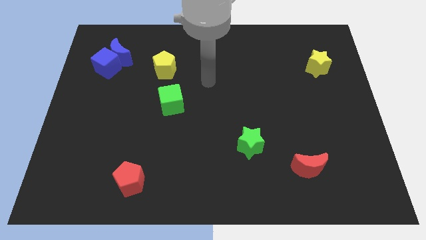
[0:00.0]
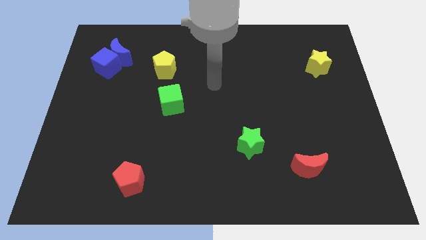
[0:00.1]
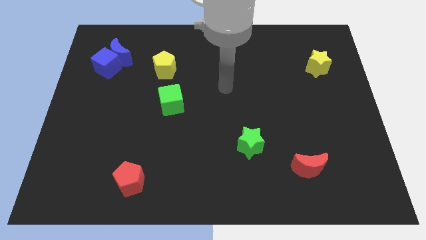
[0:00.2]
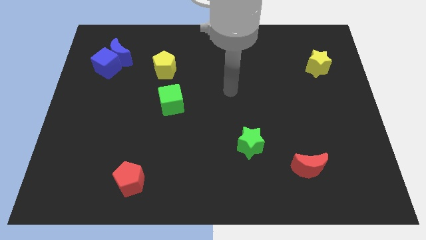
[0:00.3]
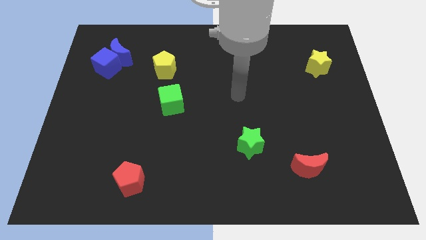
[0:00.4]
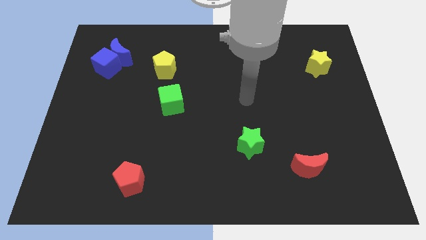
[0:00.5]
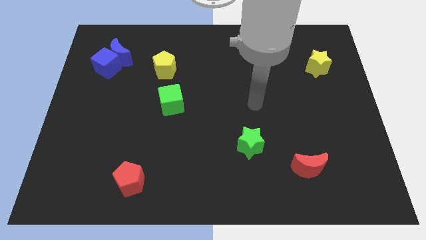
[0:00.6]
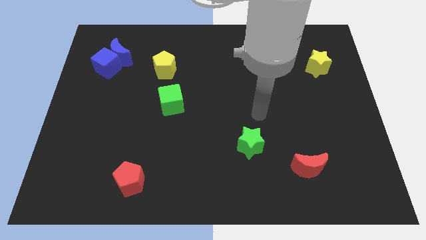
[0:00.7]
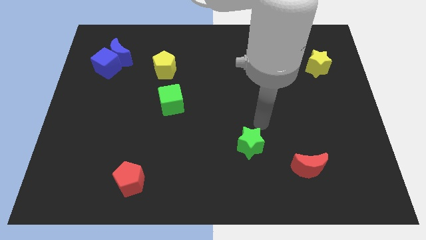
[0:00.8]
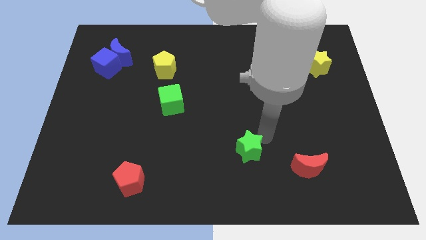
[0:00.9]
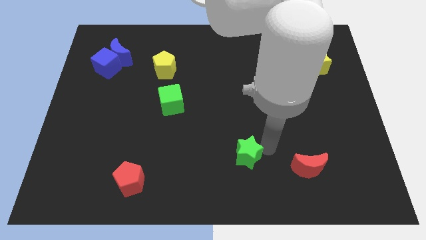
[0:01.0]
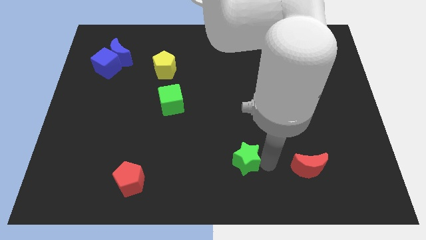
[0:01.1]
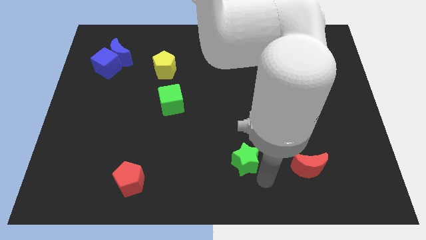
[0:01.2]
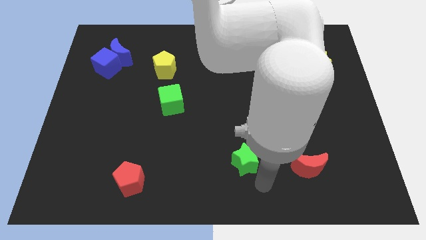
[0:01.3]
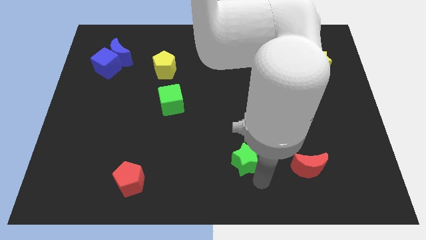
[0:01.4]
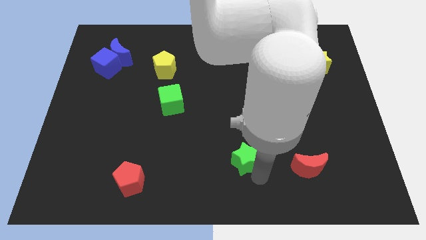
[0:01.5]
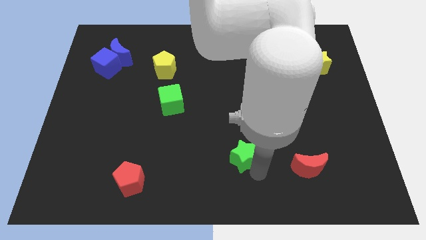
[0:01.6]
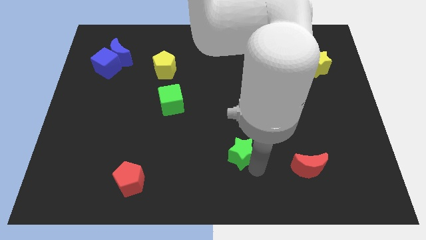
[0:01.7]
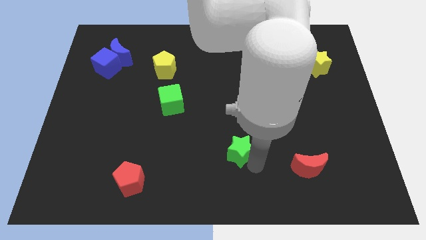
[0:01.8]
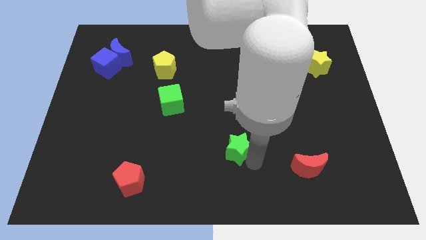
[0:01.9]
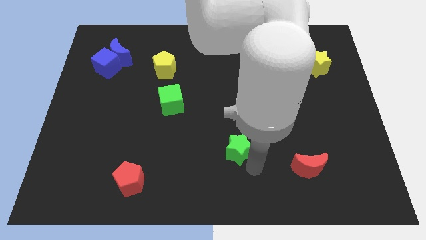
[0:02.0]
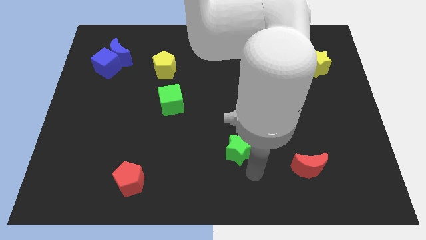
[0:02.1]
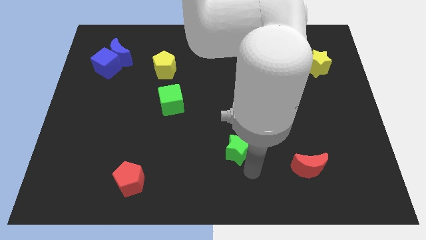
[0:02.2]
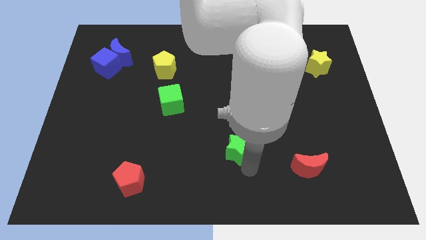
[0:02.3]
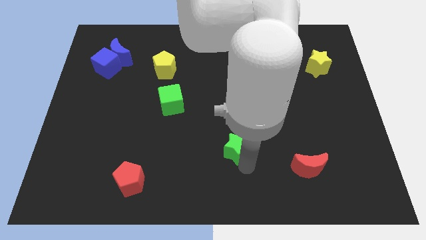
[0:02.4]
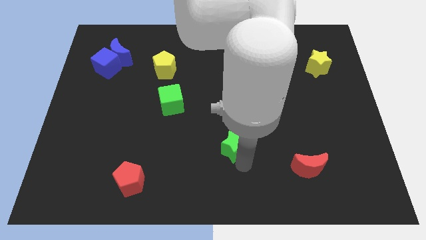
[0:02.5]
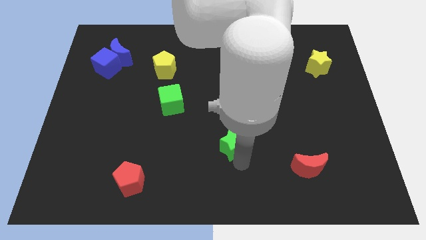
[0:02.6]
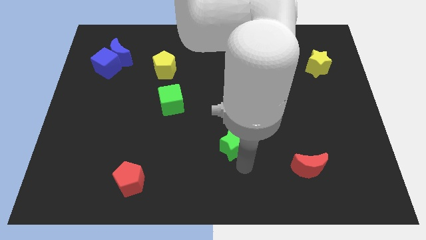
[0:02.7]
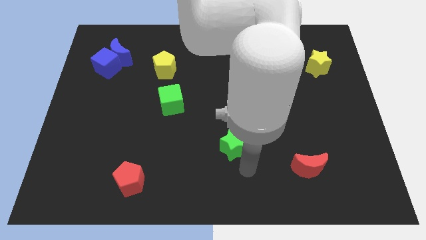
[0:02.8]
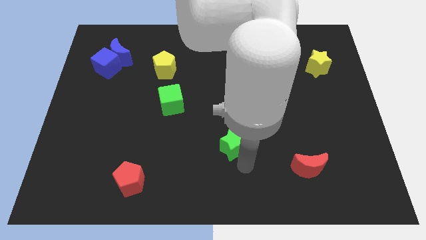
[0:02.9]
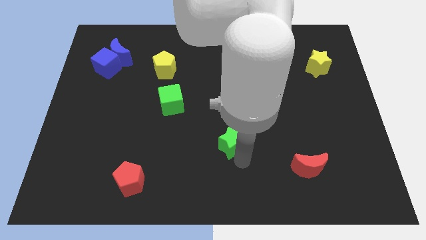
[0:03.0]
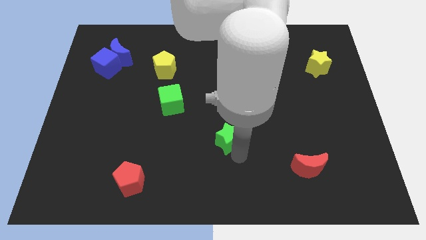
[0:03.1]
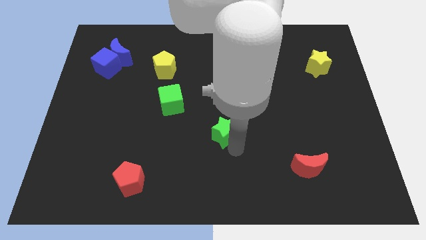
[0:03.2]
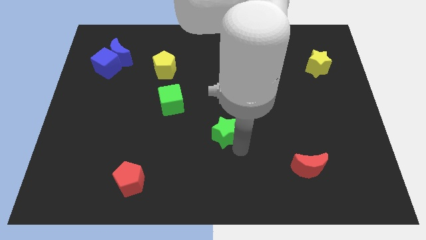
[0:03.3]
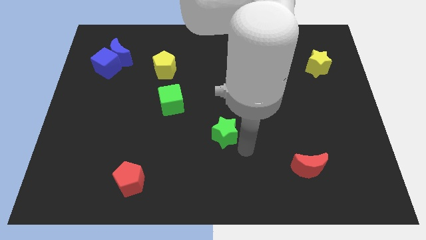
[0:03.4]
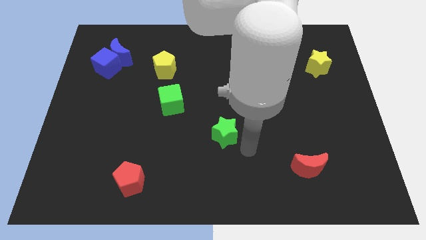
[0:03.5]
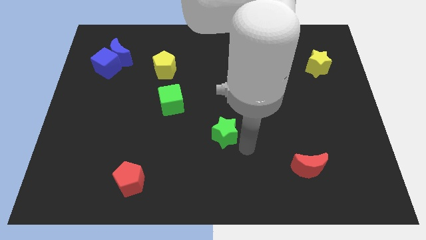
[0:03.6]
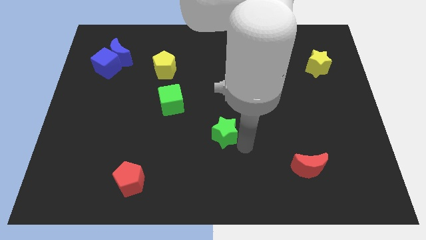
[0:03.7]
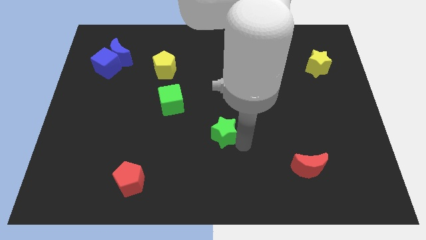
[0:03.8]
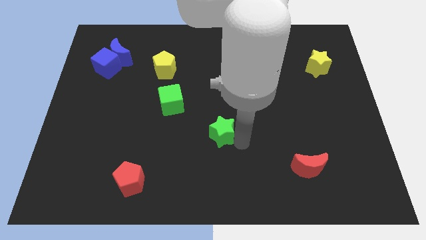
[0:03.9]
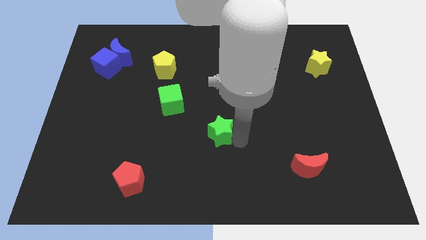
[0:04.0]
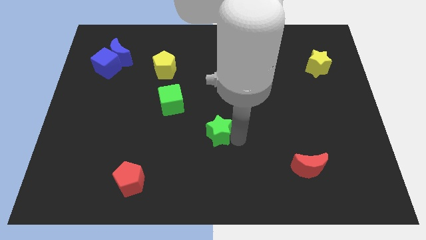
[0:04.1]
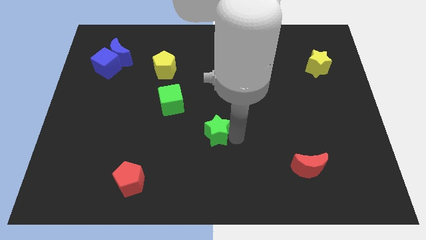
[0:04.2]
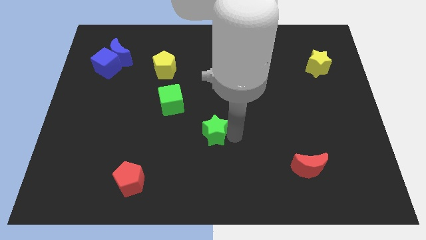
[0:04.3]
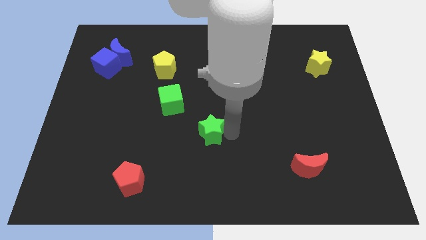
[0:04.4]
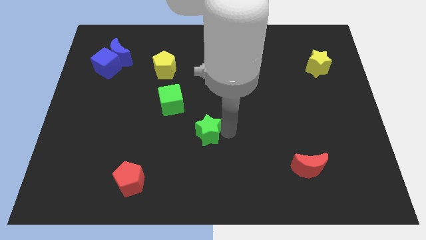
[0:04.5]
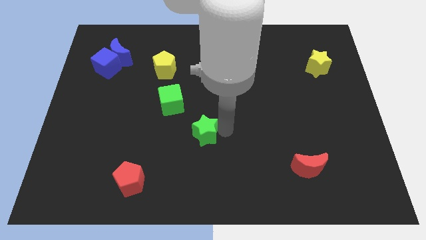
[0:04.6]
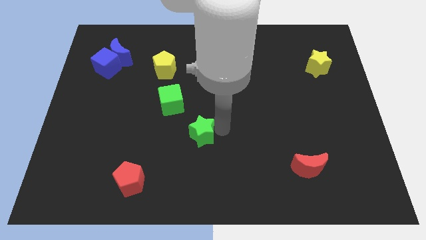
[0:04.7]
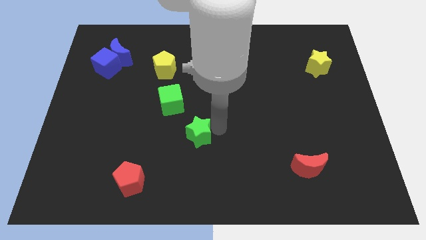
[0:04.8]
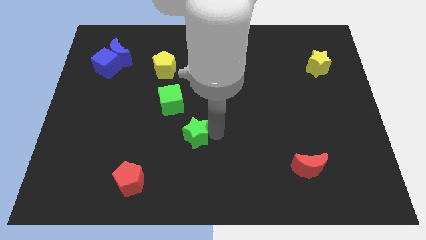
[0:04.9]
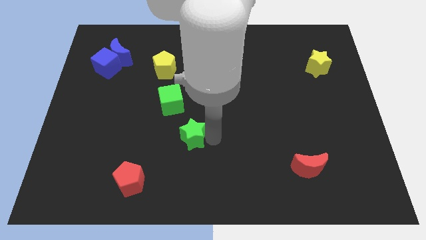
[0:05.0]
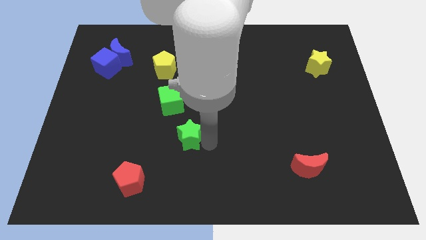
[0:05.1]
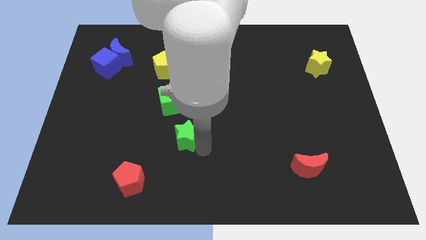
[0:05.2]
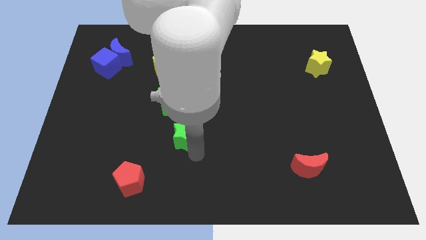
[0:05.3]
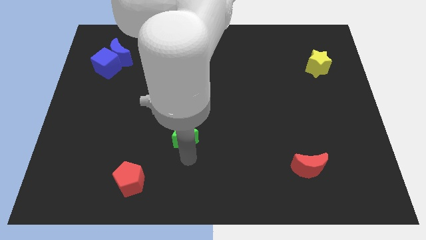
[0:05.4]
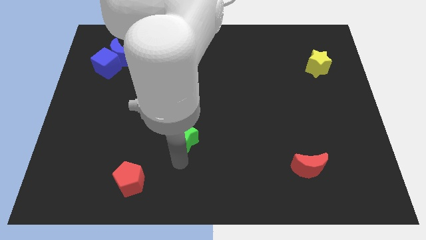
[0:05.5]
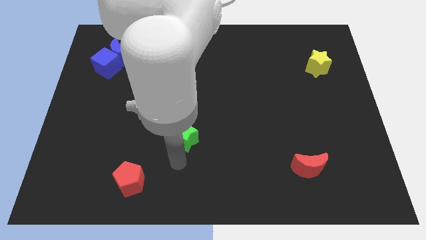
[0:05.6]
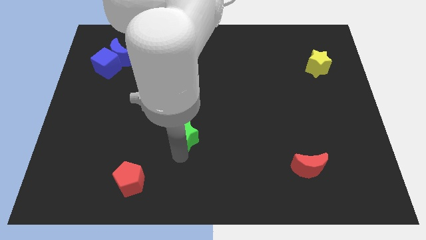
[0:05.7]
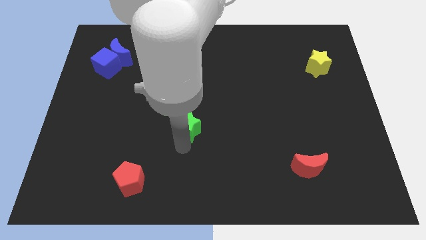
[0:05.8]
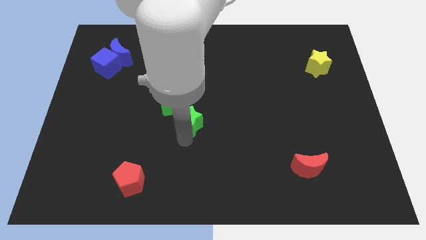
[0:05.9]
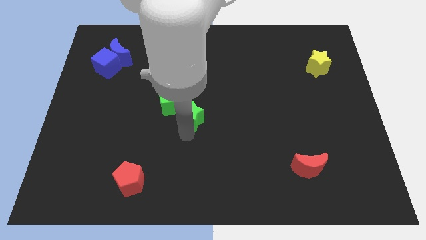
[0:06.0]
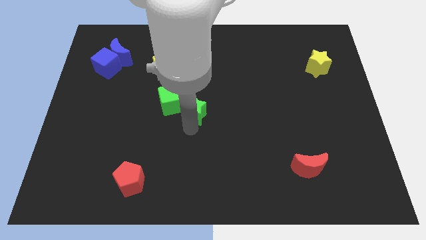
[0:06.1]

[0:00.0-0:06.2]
put the green star towards the green cube

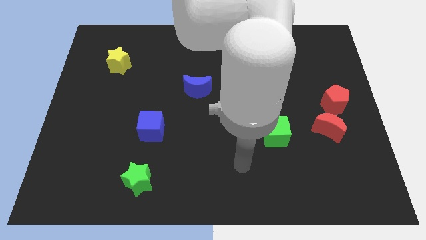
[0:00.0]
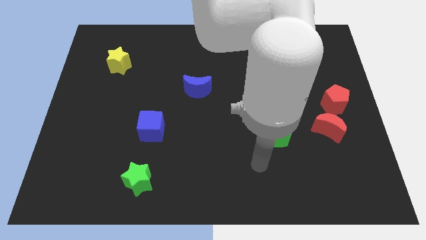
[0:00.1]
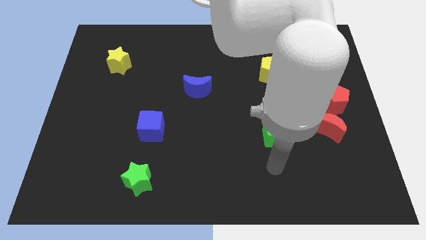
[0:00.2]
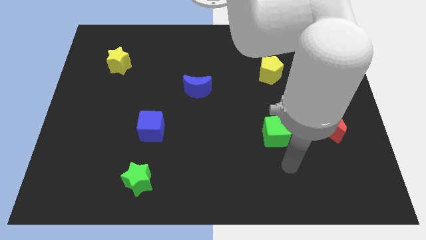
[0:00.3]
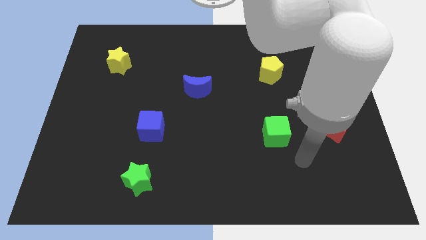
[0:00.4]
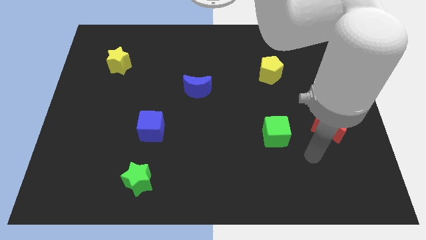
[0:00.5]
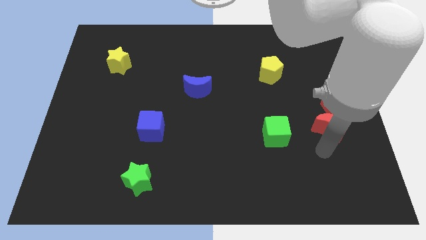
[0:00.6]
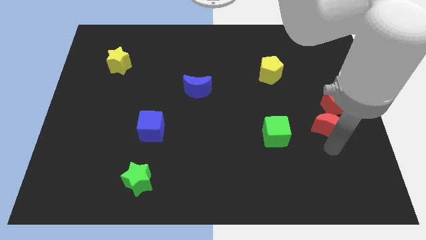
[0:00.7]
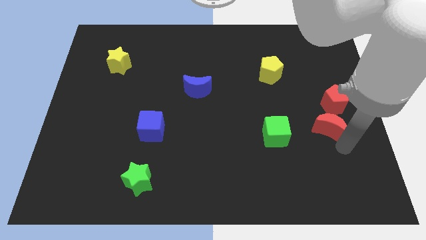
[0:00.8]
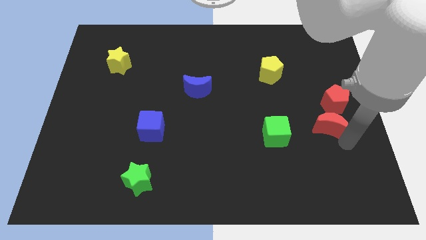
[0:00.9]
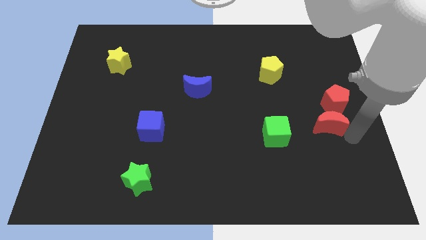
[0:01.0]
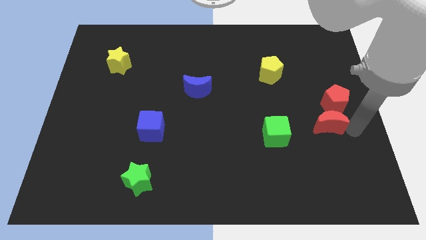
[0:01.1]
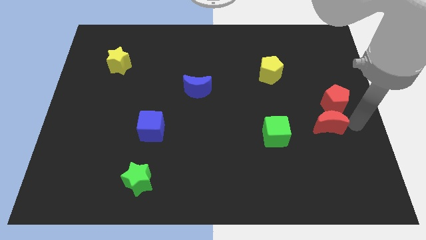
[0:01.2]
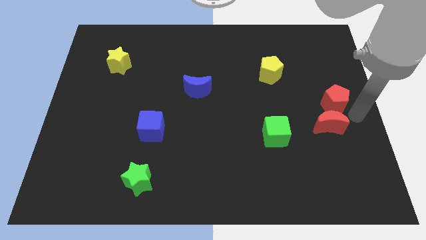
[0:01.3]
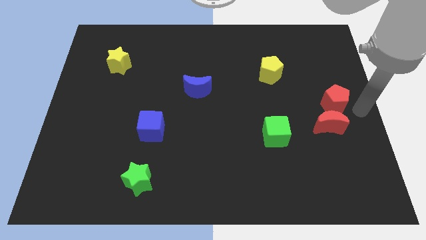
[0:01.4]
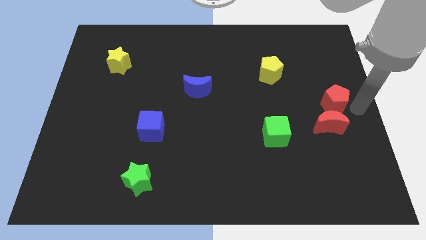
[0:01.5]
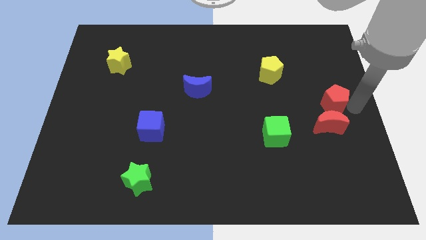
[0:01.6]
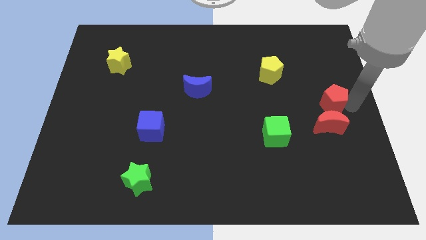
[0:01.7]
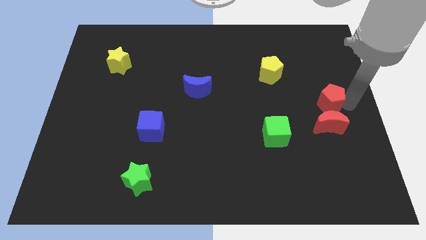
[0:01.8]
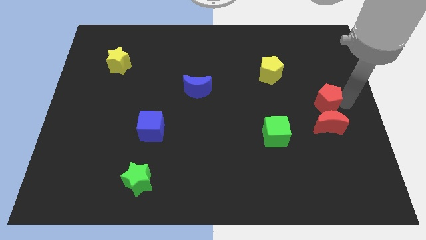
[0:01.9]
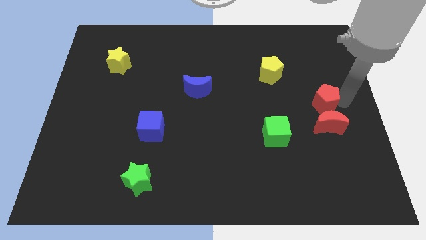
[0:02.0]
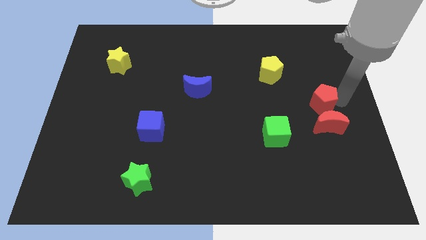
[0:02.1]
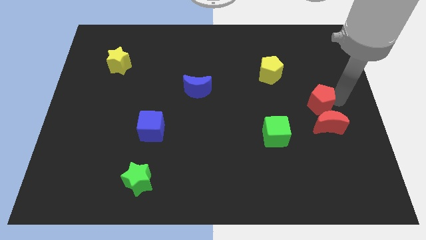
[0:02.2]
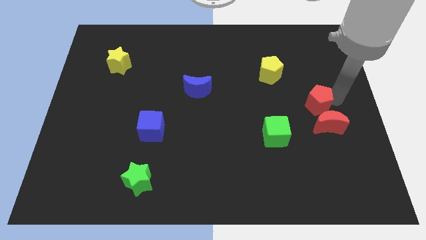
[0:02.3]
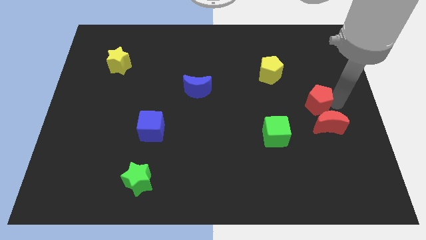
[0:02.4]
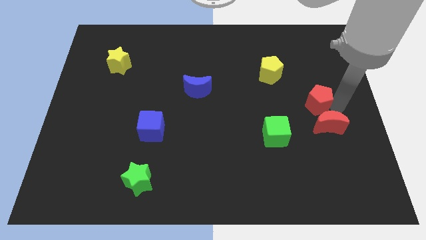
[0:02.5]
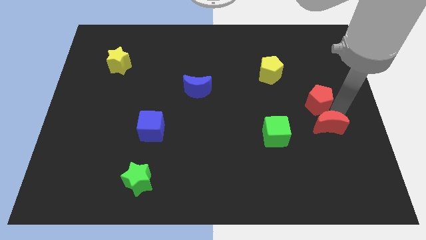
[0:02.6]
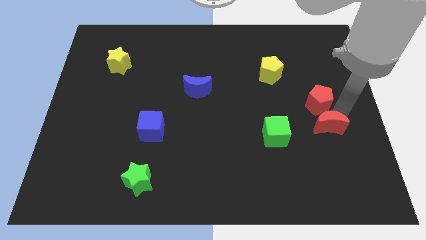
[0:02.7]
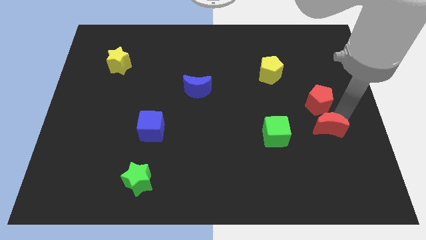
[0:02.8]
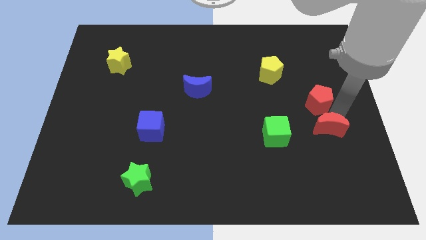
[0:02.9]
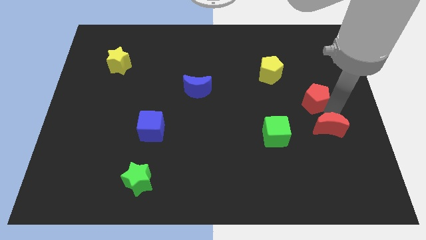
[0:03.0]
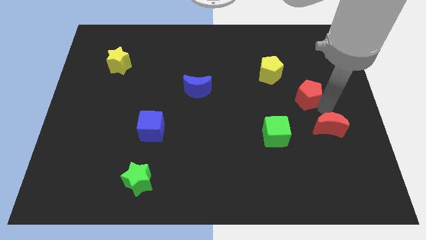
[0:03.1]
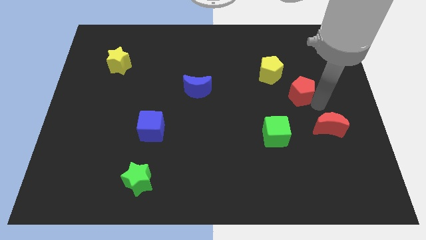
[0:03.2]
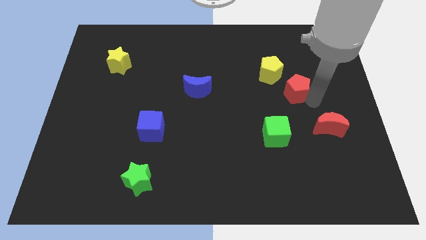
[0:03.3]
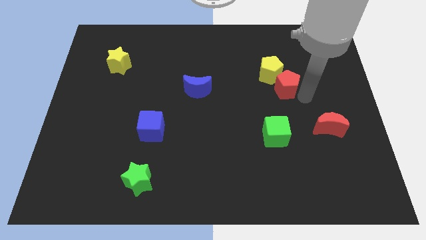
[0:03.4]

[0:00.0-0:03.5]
move the red pentagon towards the yellow pentagon
